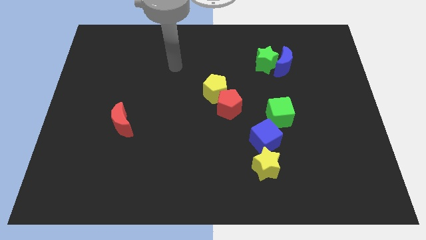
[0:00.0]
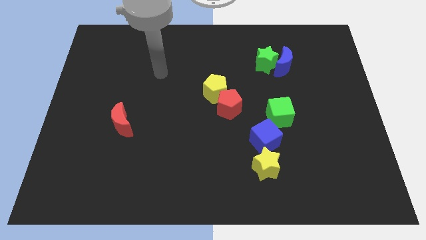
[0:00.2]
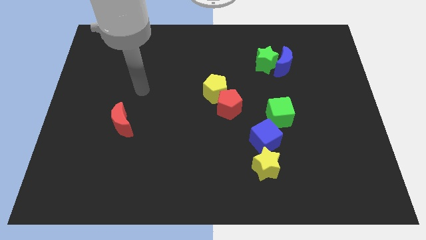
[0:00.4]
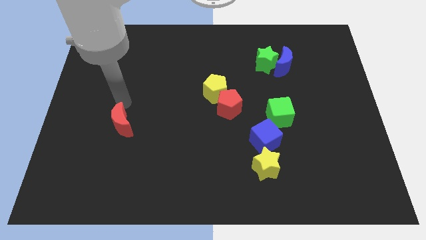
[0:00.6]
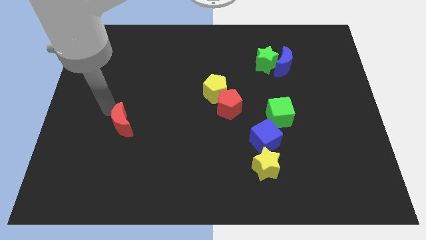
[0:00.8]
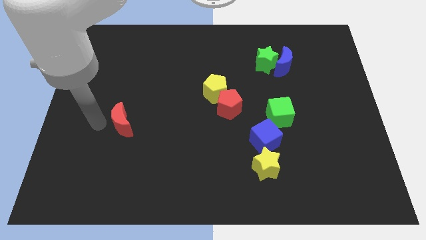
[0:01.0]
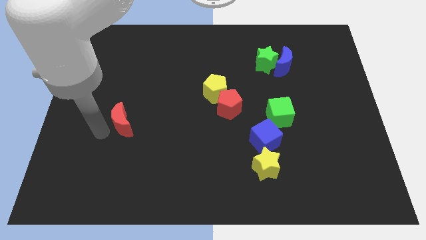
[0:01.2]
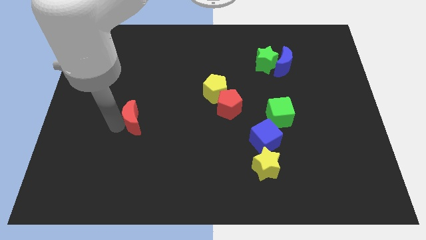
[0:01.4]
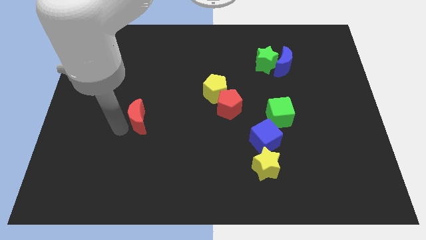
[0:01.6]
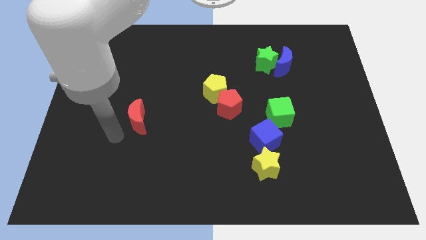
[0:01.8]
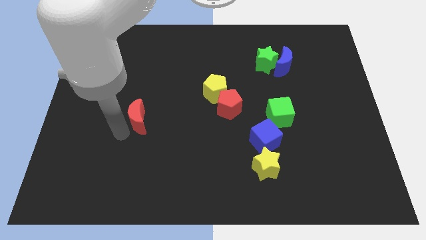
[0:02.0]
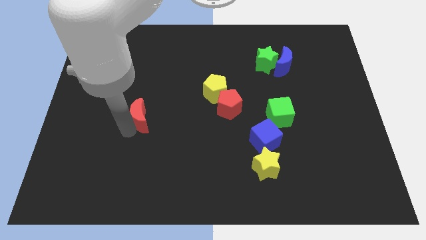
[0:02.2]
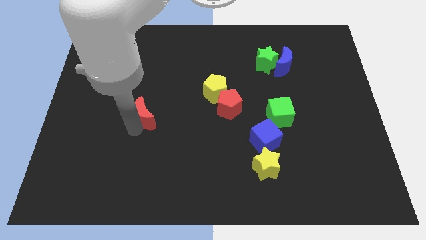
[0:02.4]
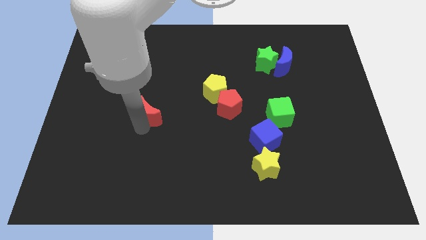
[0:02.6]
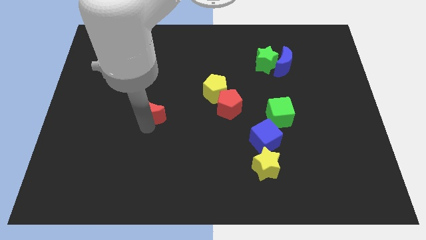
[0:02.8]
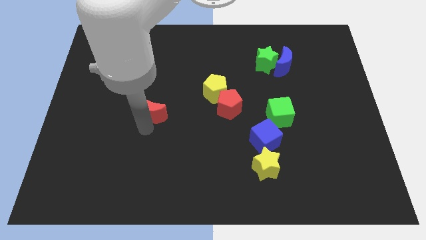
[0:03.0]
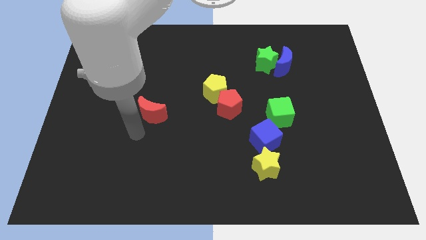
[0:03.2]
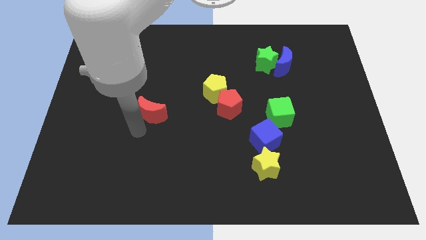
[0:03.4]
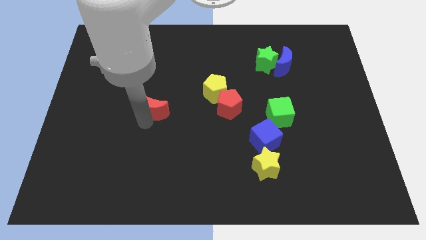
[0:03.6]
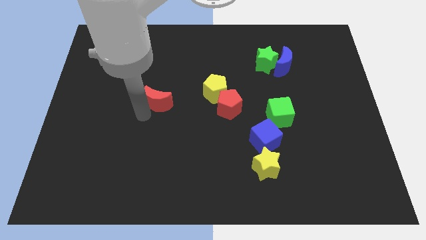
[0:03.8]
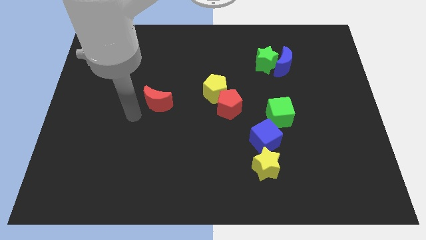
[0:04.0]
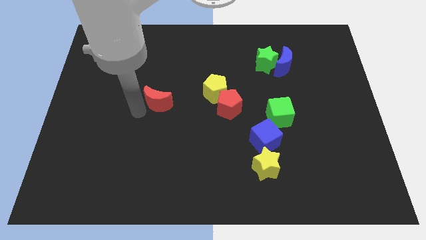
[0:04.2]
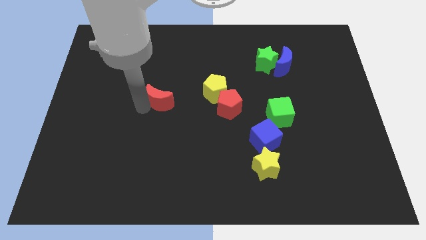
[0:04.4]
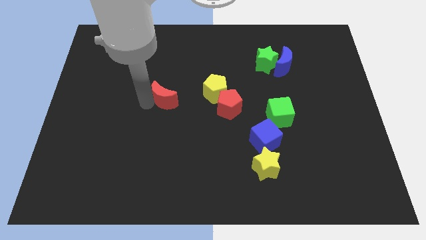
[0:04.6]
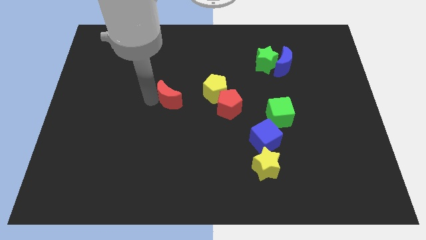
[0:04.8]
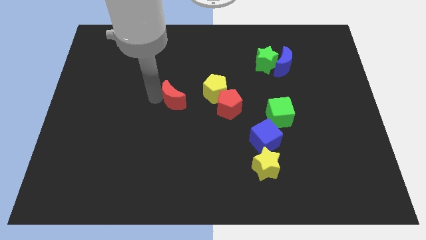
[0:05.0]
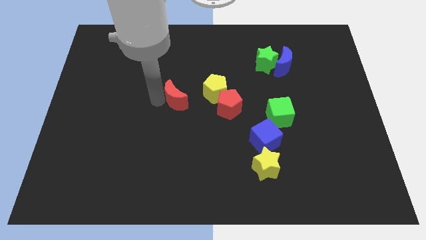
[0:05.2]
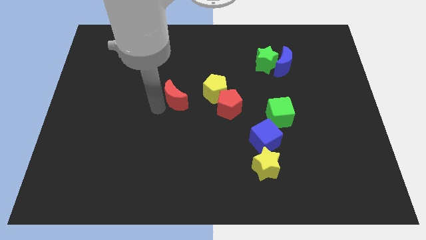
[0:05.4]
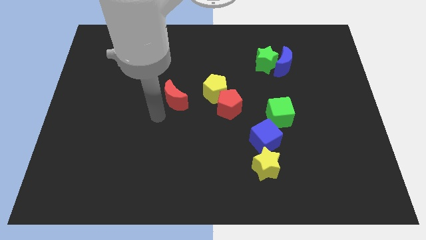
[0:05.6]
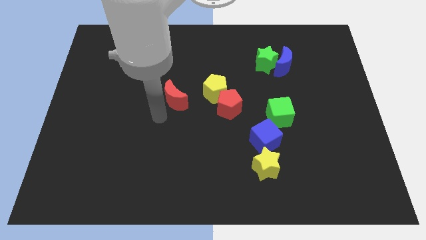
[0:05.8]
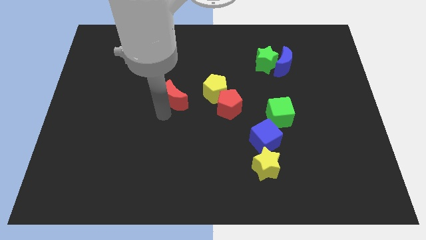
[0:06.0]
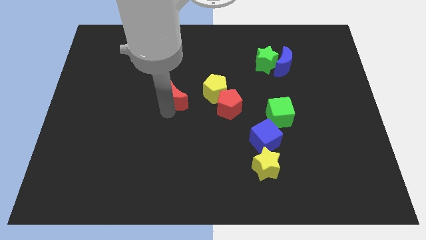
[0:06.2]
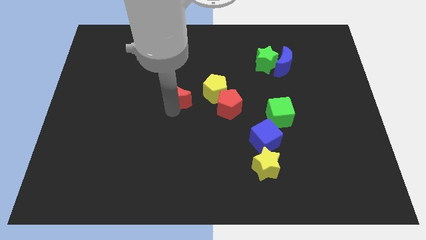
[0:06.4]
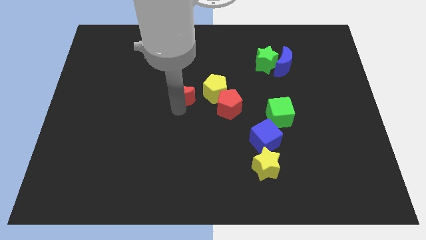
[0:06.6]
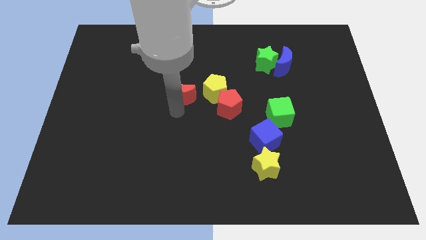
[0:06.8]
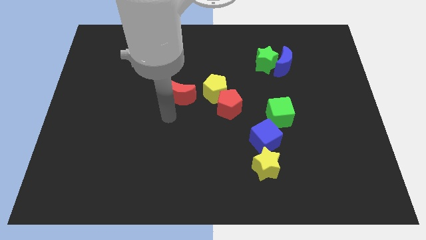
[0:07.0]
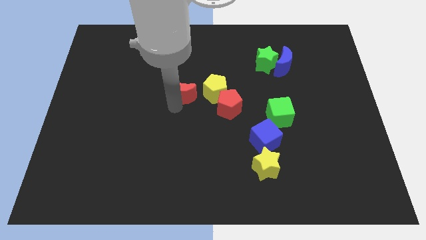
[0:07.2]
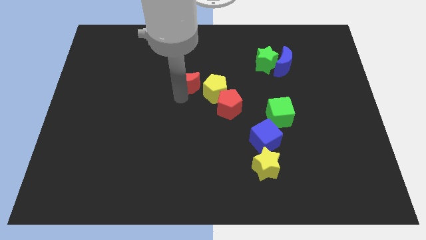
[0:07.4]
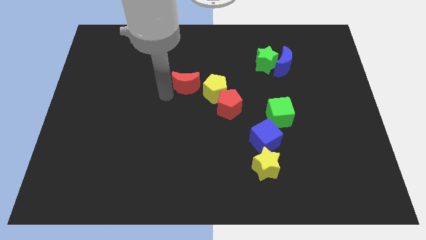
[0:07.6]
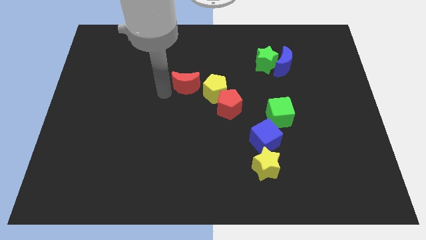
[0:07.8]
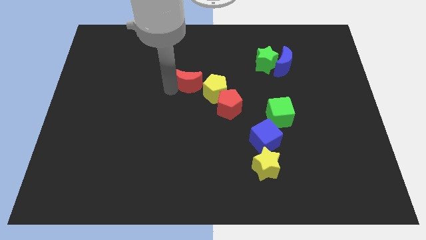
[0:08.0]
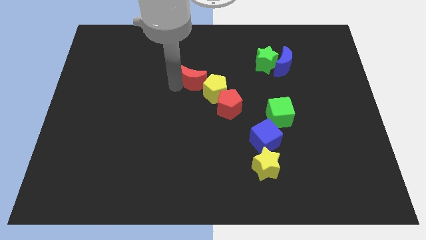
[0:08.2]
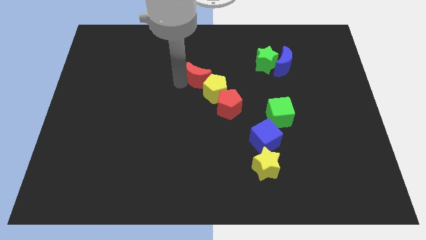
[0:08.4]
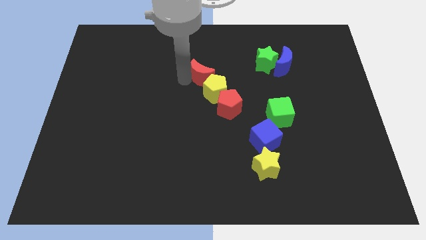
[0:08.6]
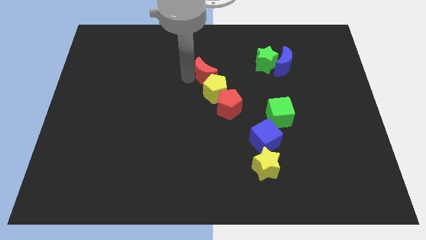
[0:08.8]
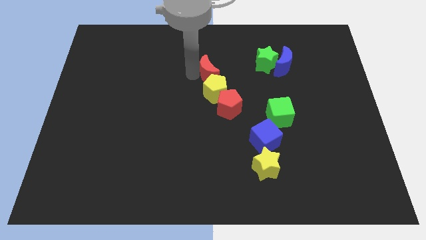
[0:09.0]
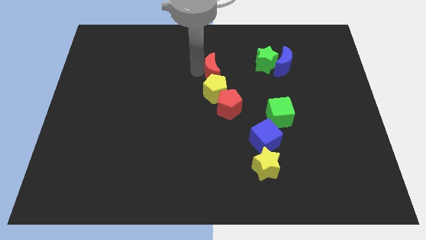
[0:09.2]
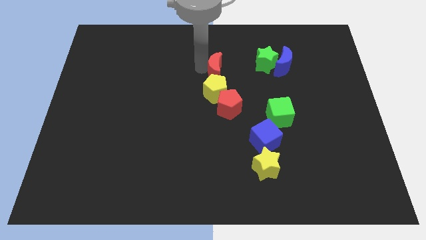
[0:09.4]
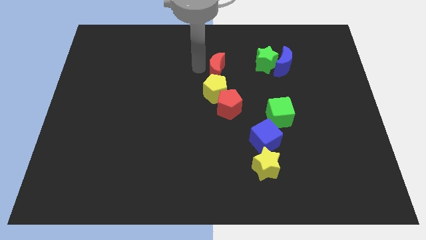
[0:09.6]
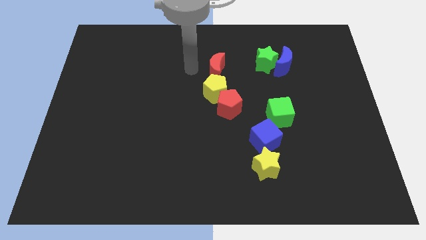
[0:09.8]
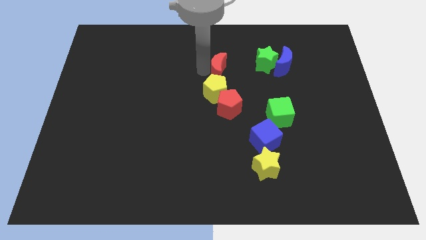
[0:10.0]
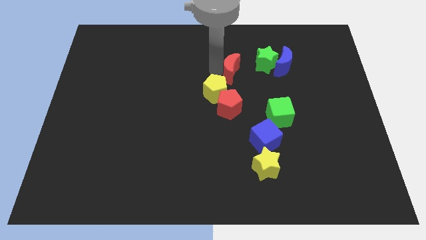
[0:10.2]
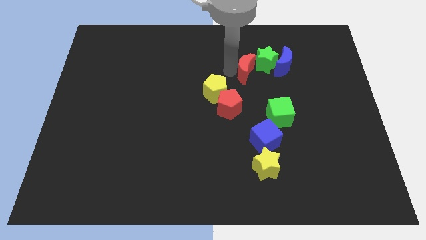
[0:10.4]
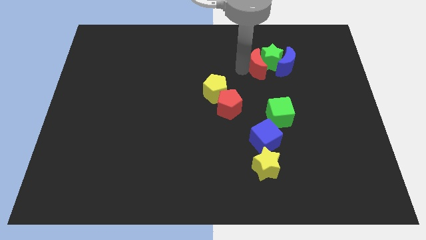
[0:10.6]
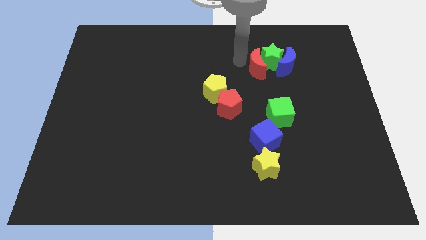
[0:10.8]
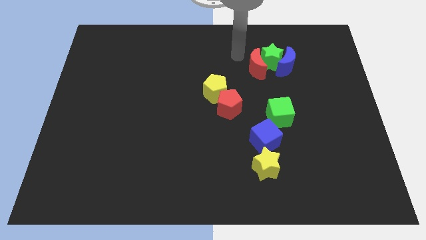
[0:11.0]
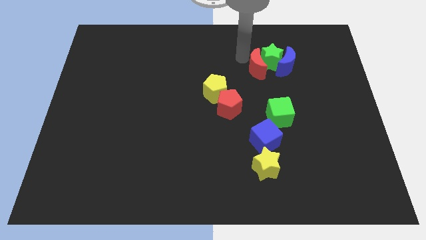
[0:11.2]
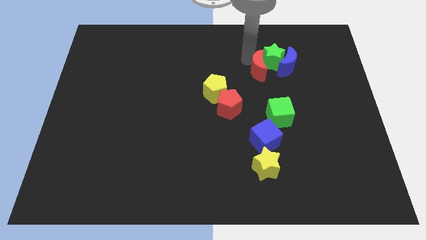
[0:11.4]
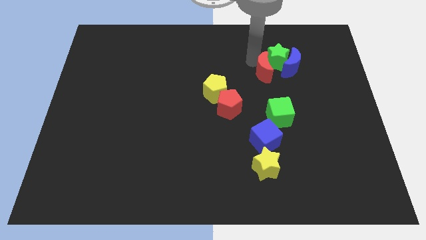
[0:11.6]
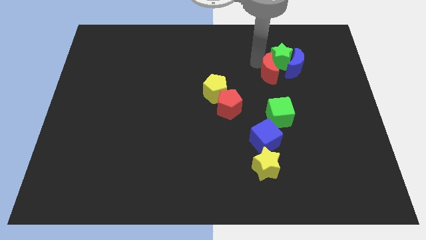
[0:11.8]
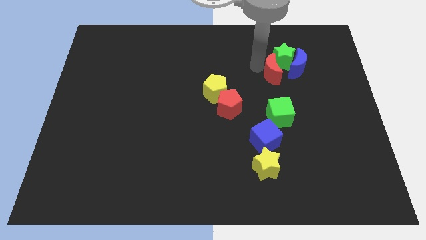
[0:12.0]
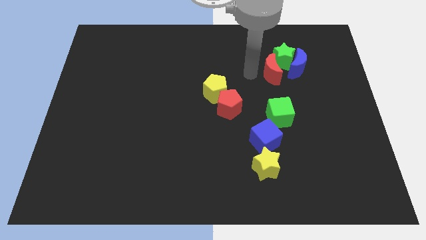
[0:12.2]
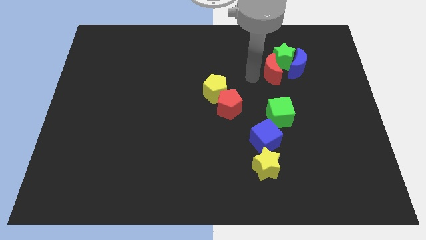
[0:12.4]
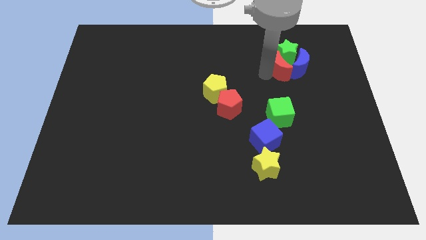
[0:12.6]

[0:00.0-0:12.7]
move the red moon close to the blue moon

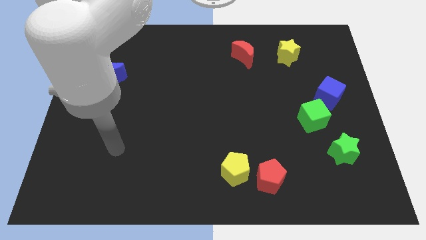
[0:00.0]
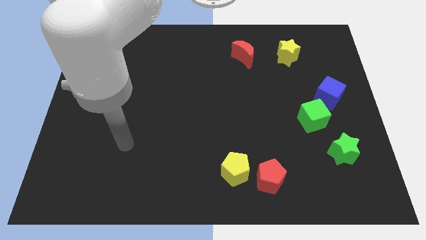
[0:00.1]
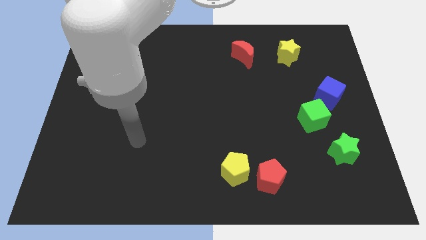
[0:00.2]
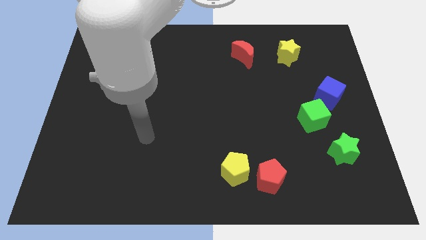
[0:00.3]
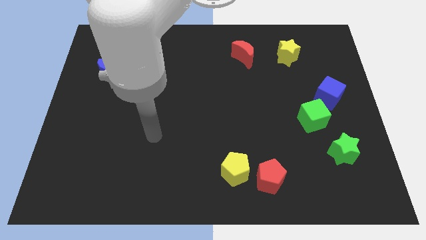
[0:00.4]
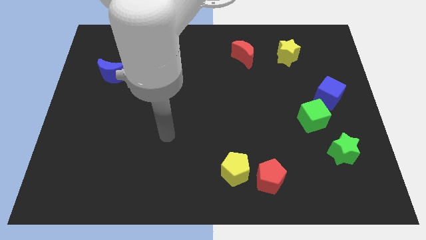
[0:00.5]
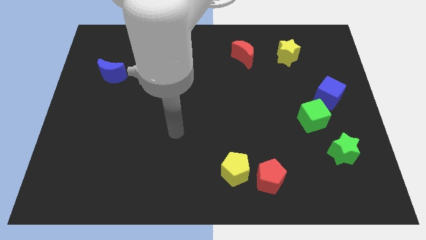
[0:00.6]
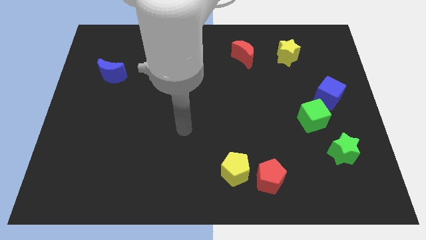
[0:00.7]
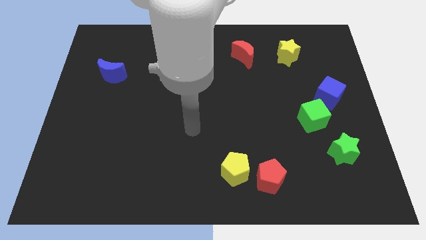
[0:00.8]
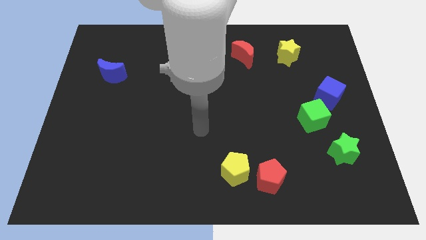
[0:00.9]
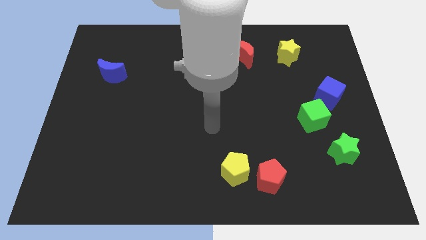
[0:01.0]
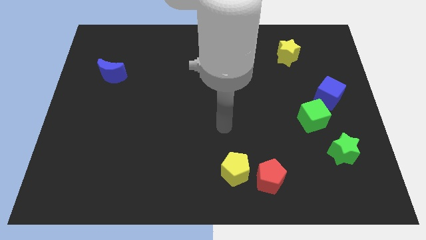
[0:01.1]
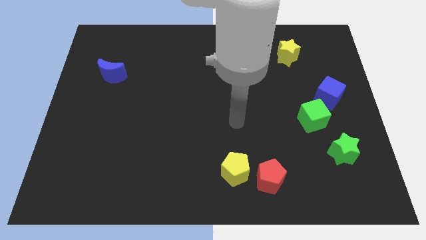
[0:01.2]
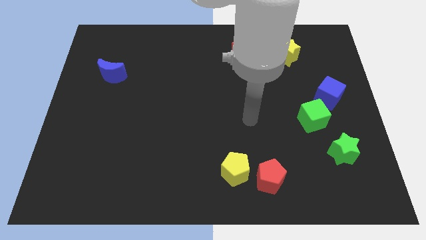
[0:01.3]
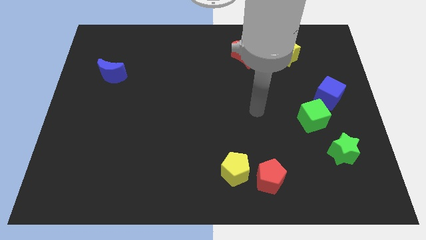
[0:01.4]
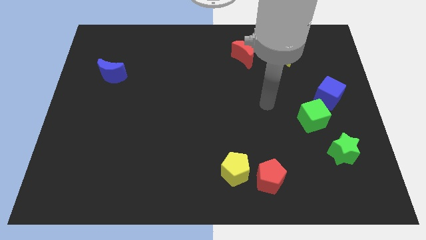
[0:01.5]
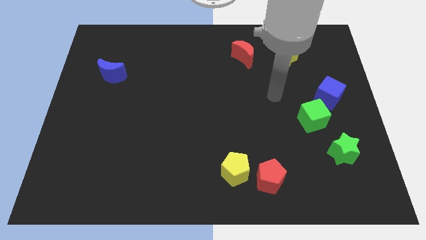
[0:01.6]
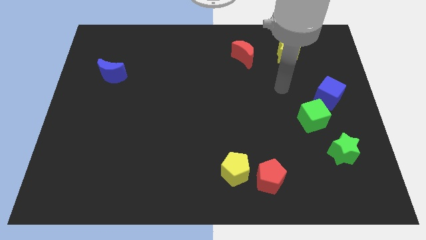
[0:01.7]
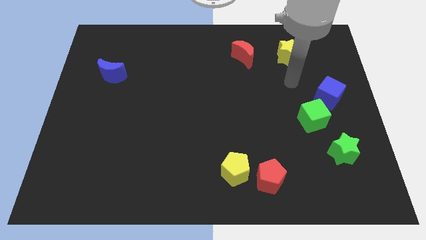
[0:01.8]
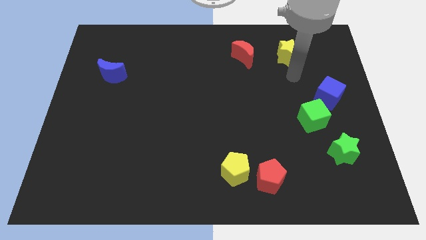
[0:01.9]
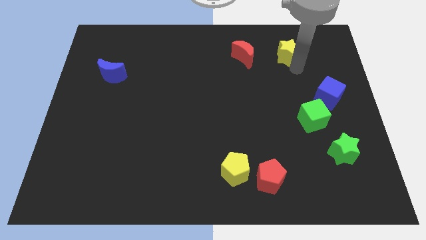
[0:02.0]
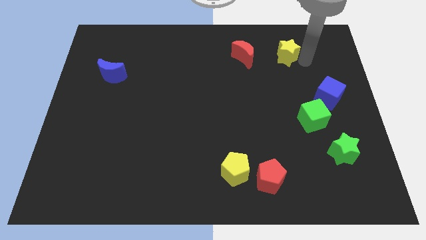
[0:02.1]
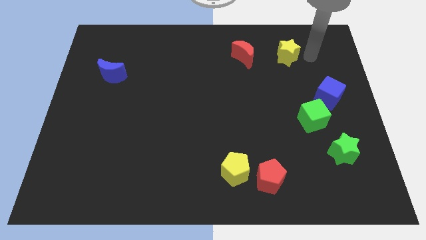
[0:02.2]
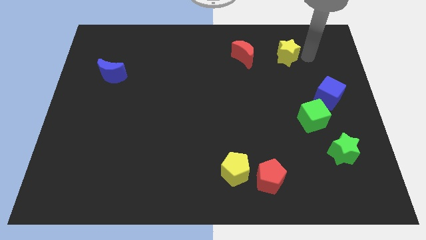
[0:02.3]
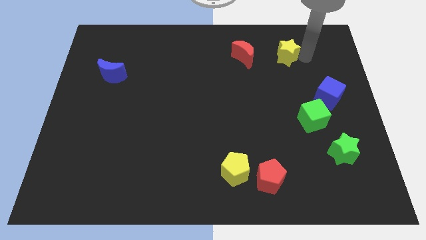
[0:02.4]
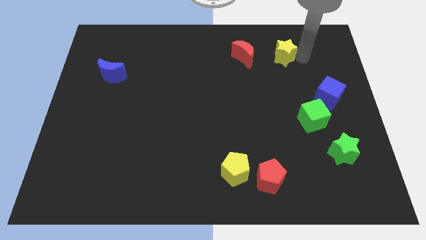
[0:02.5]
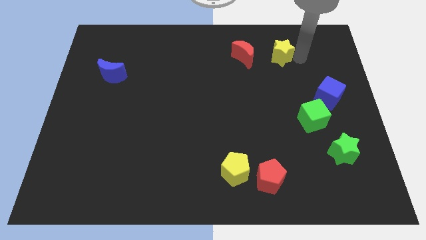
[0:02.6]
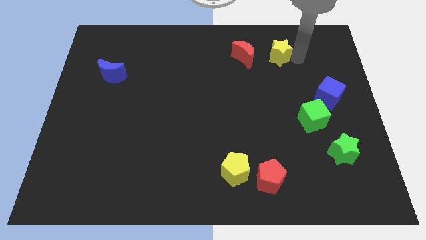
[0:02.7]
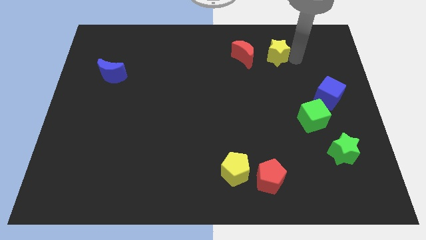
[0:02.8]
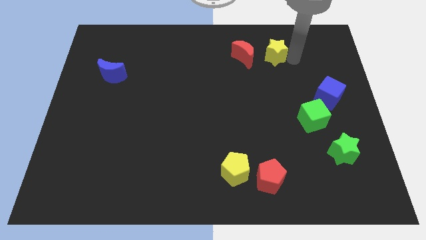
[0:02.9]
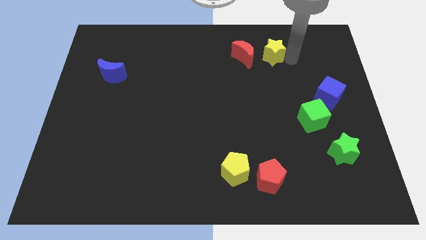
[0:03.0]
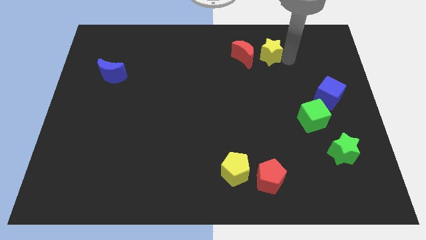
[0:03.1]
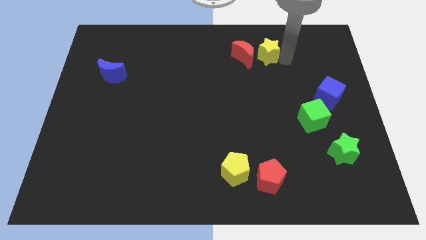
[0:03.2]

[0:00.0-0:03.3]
move the yellow star next to the red moon
